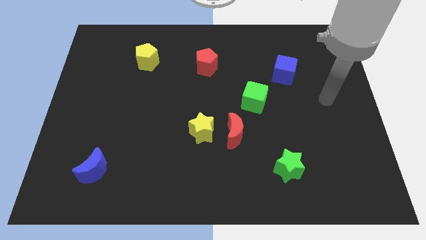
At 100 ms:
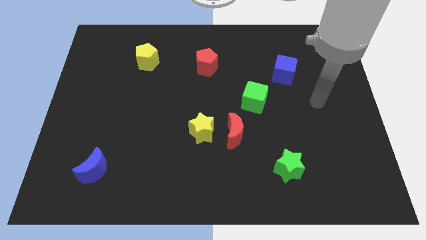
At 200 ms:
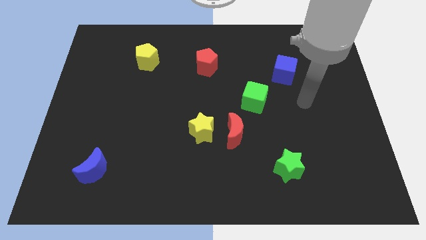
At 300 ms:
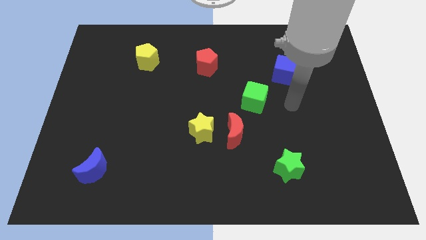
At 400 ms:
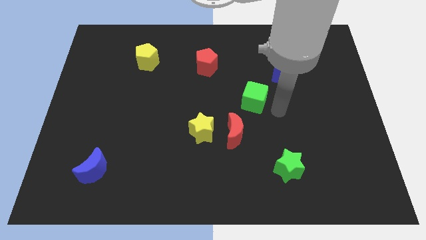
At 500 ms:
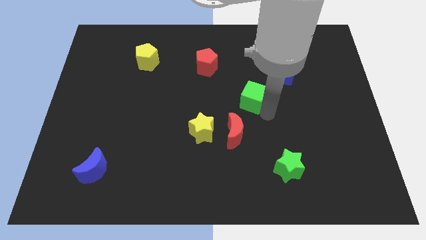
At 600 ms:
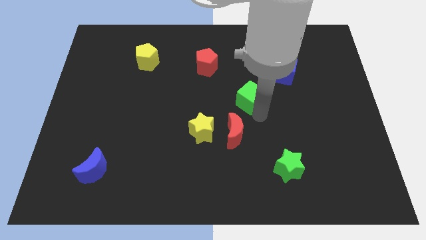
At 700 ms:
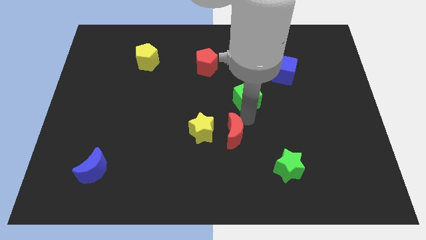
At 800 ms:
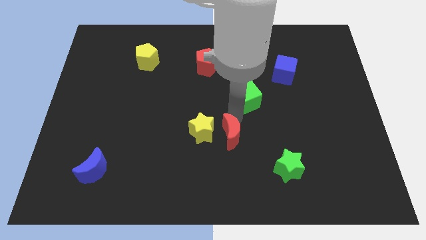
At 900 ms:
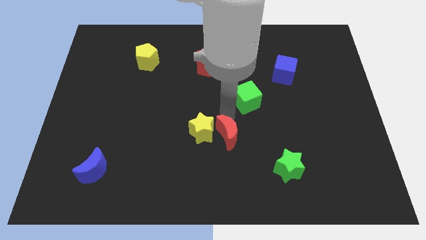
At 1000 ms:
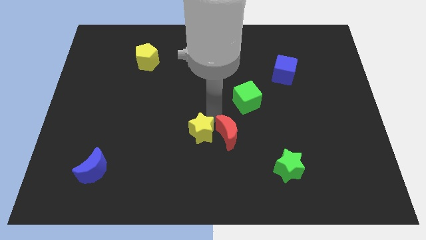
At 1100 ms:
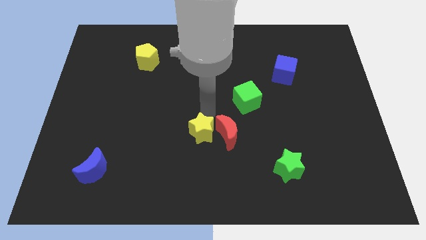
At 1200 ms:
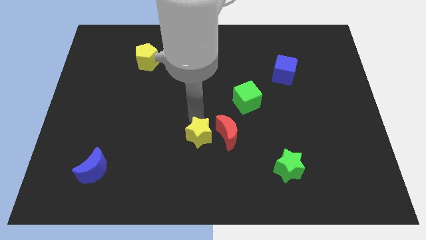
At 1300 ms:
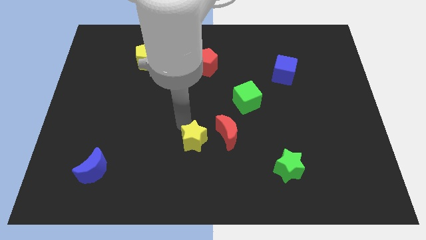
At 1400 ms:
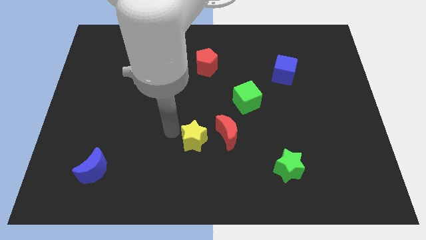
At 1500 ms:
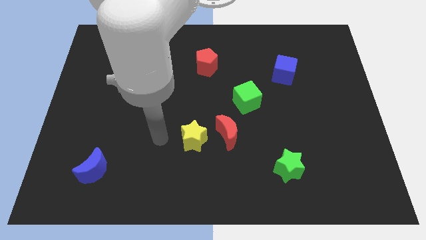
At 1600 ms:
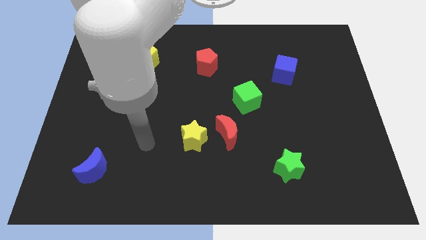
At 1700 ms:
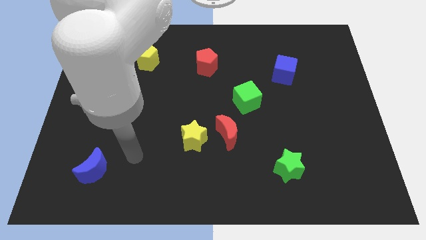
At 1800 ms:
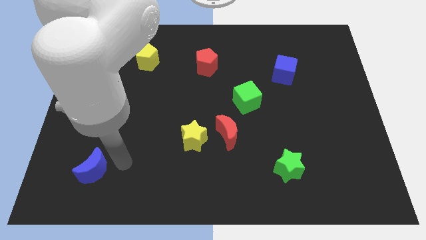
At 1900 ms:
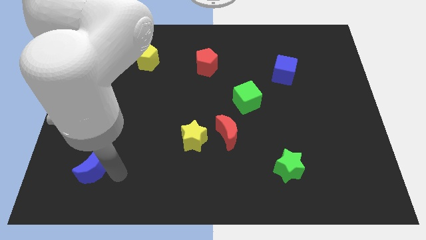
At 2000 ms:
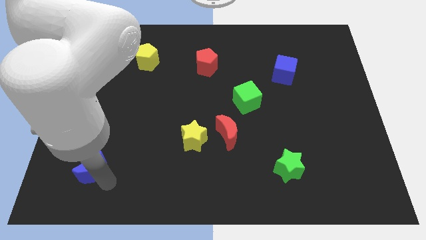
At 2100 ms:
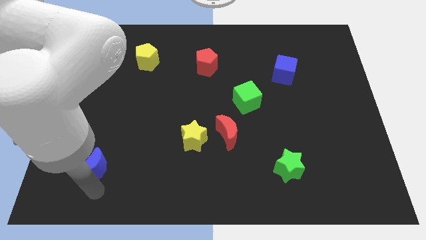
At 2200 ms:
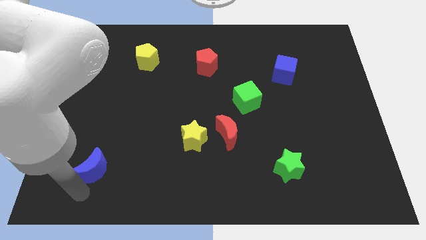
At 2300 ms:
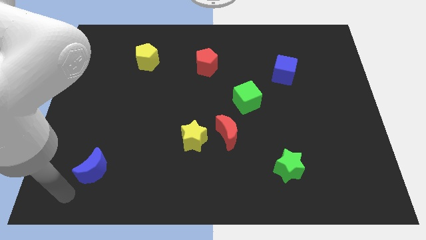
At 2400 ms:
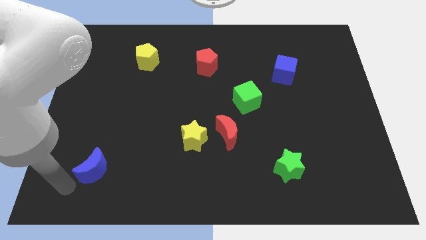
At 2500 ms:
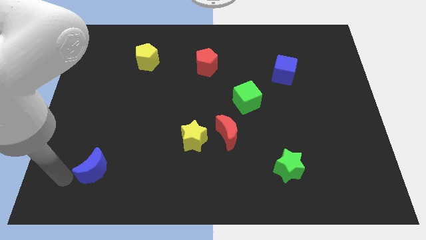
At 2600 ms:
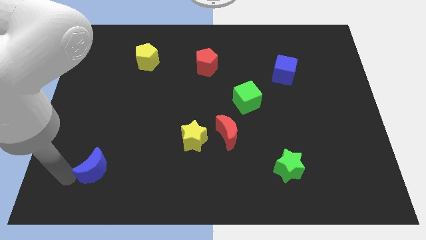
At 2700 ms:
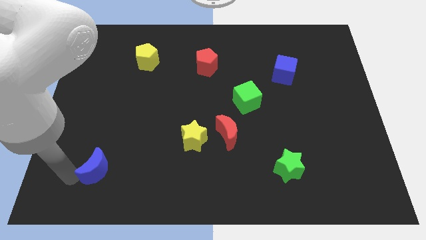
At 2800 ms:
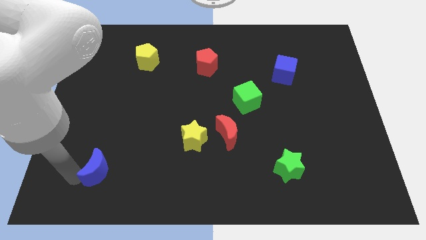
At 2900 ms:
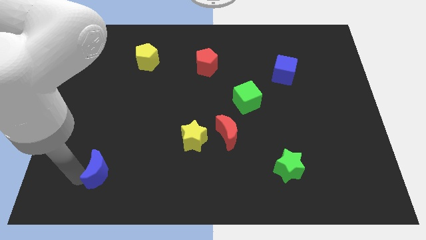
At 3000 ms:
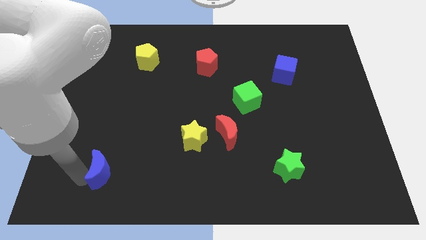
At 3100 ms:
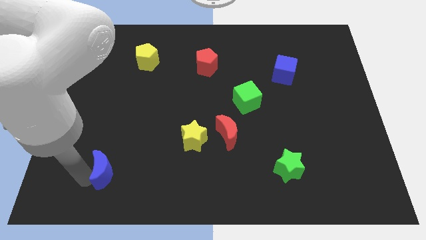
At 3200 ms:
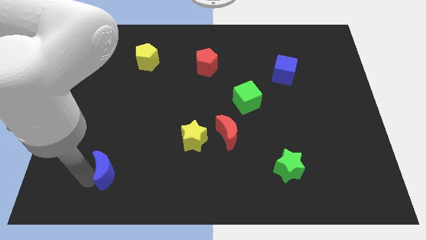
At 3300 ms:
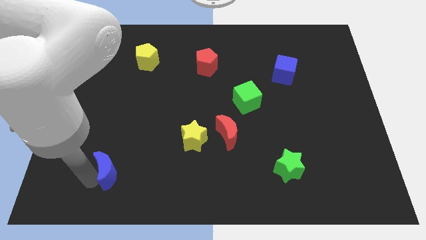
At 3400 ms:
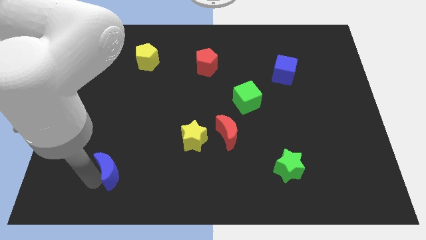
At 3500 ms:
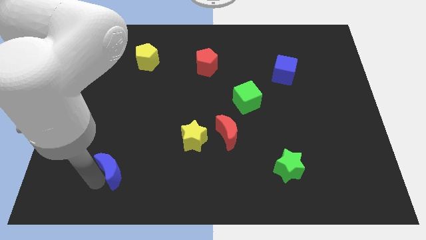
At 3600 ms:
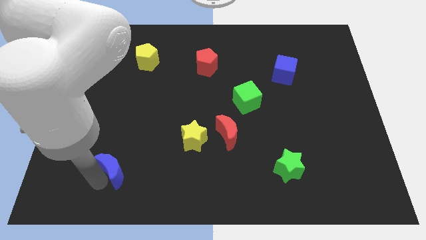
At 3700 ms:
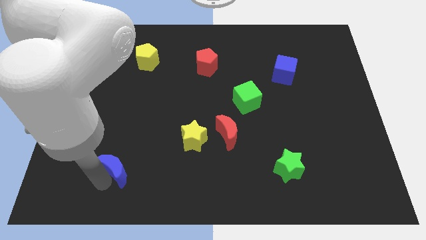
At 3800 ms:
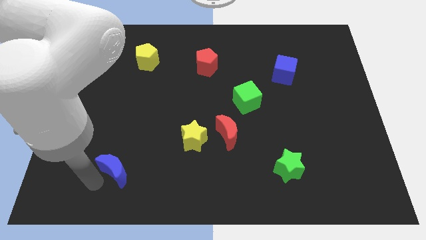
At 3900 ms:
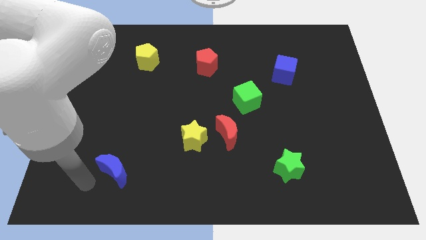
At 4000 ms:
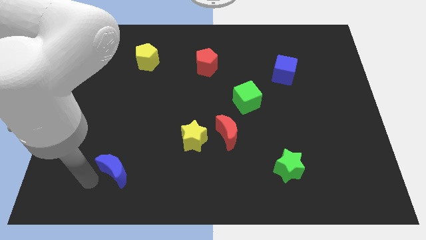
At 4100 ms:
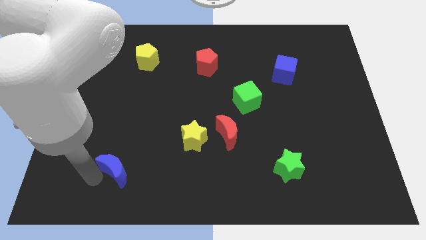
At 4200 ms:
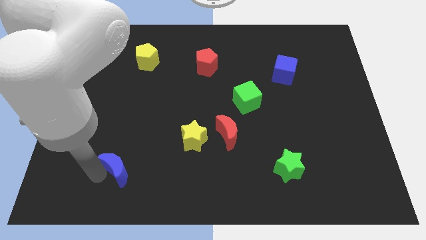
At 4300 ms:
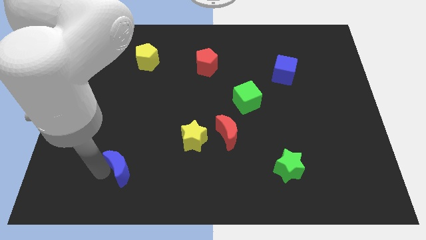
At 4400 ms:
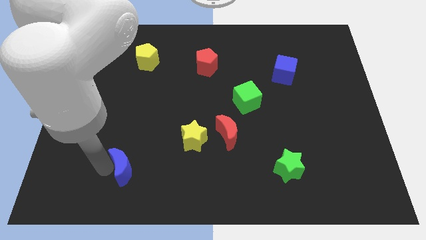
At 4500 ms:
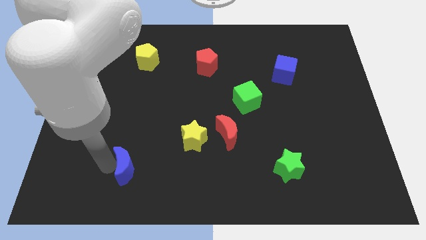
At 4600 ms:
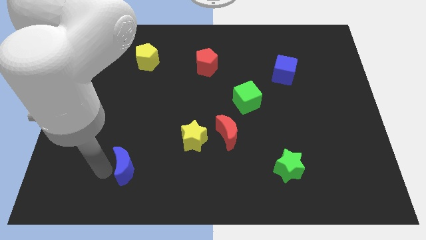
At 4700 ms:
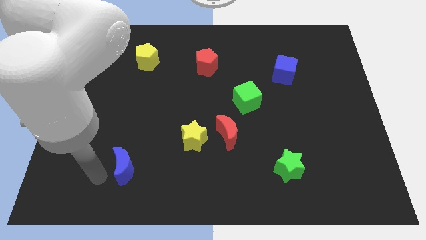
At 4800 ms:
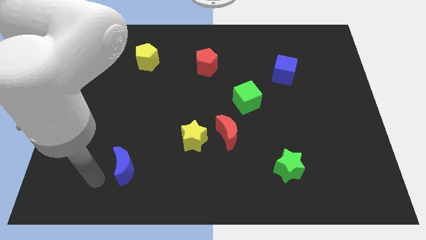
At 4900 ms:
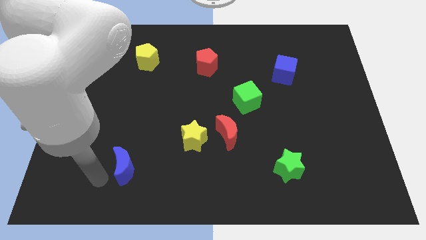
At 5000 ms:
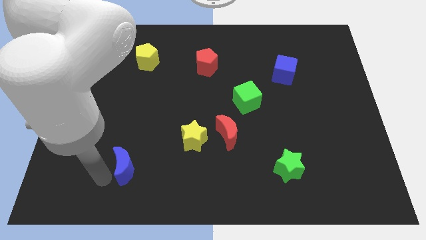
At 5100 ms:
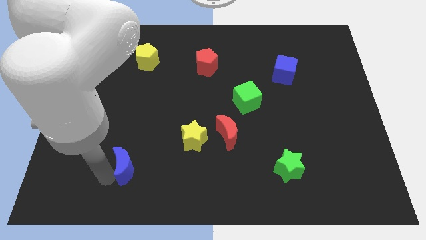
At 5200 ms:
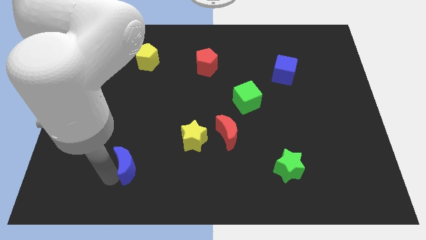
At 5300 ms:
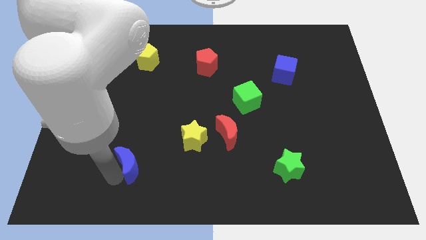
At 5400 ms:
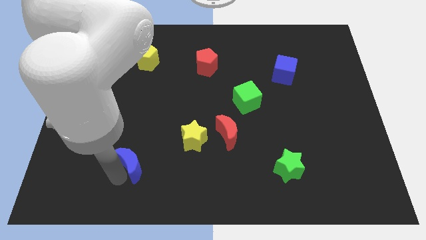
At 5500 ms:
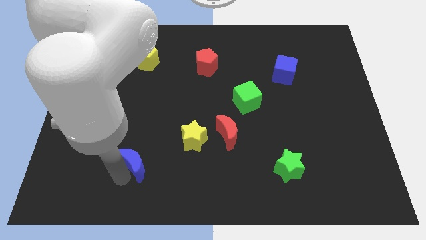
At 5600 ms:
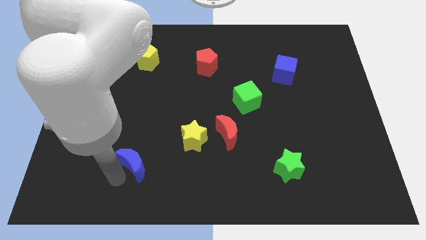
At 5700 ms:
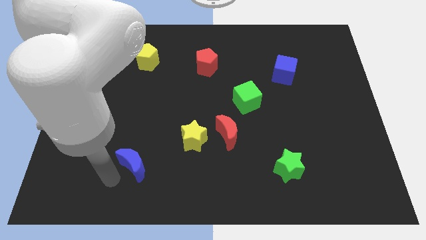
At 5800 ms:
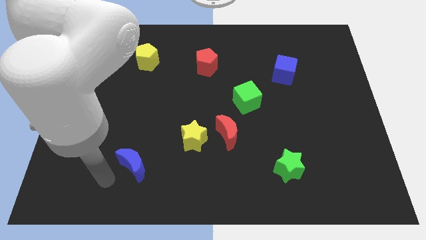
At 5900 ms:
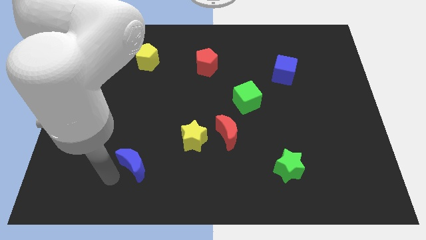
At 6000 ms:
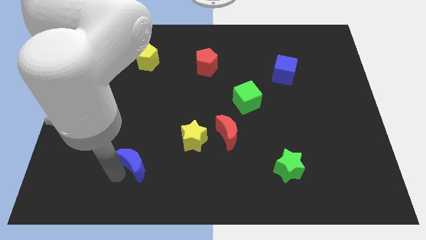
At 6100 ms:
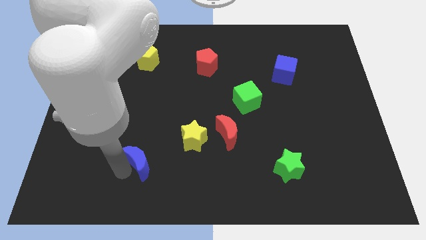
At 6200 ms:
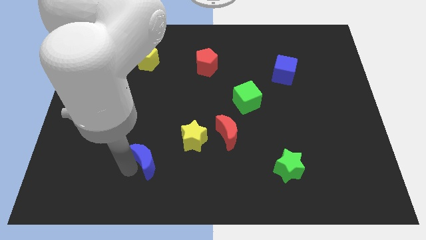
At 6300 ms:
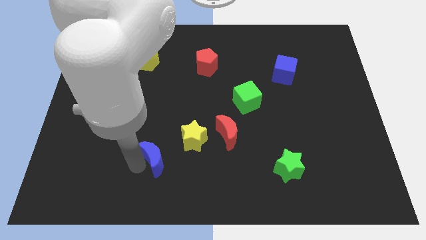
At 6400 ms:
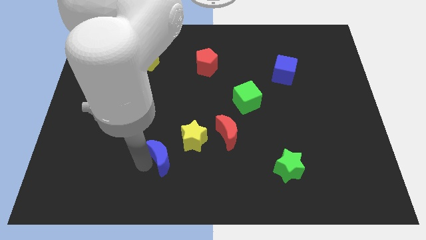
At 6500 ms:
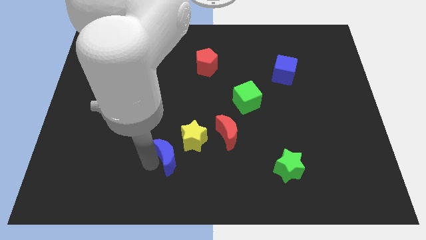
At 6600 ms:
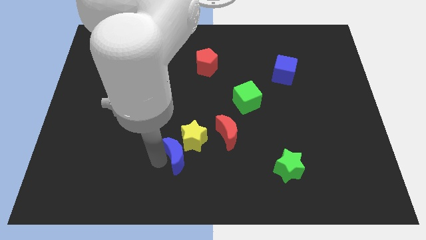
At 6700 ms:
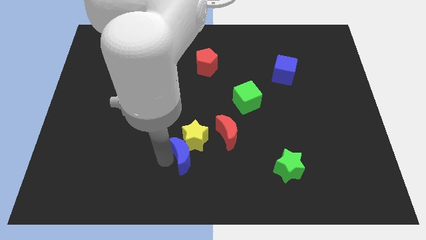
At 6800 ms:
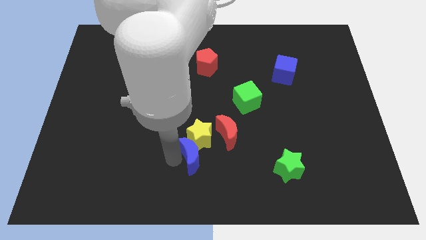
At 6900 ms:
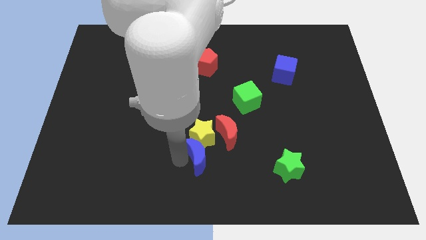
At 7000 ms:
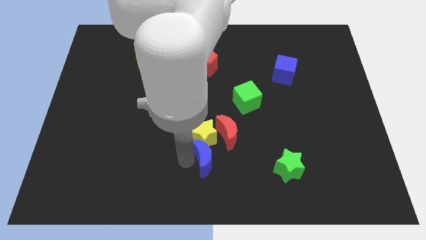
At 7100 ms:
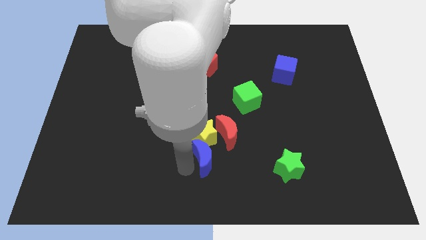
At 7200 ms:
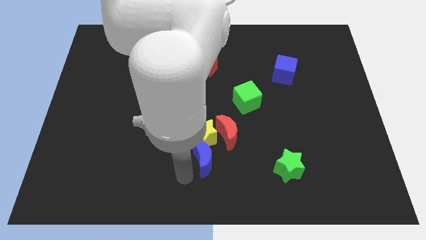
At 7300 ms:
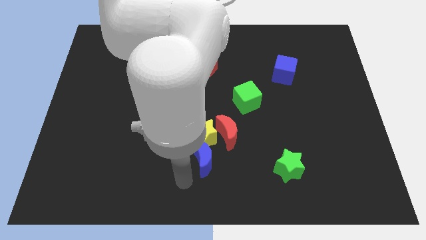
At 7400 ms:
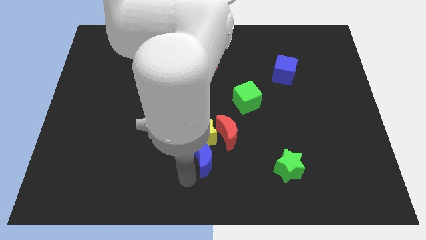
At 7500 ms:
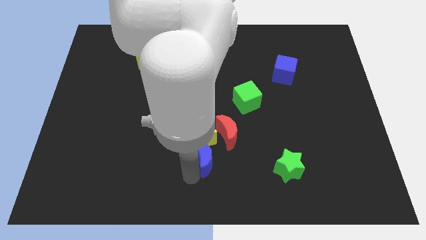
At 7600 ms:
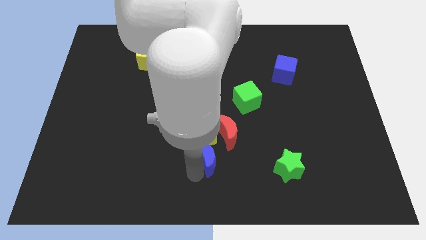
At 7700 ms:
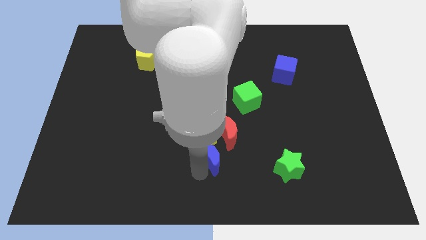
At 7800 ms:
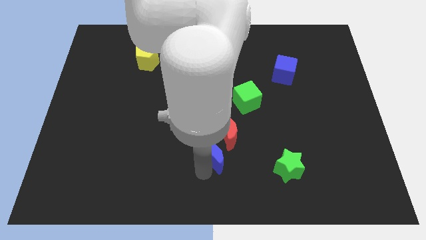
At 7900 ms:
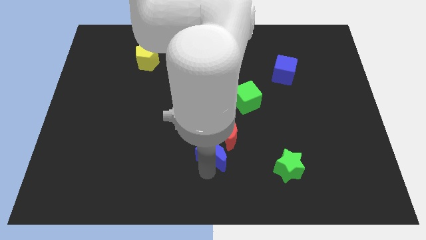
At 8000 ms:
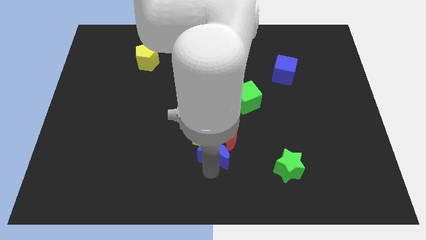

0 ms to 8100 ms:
put the blue moon next to the red moon
